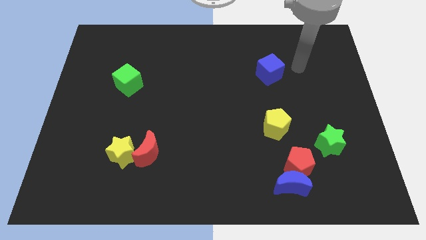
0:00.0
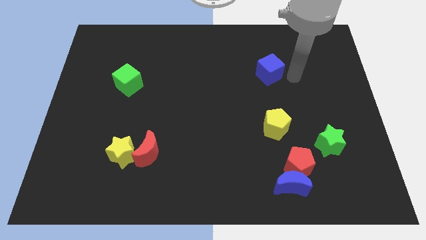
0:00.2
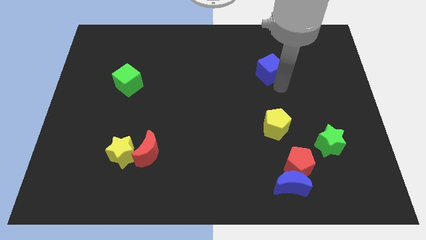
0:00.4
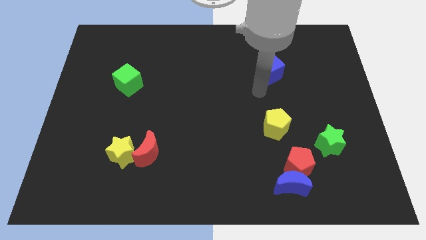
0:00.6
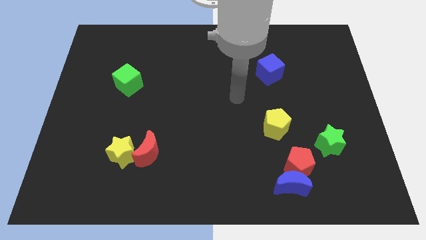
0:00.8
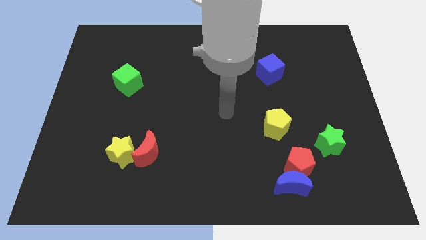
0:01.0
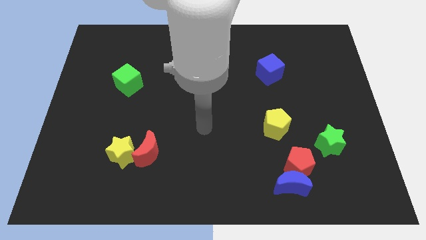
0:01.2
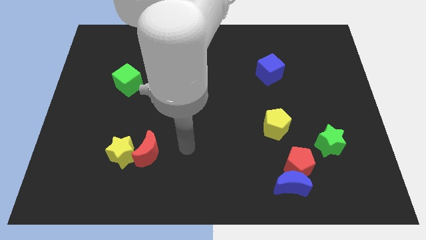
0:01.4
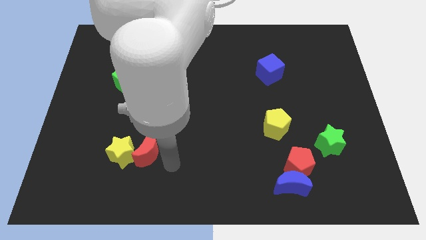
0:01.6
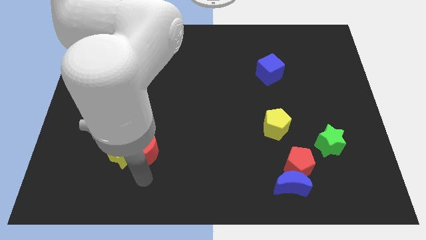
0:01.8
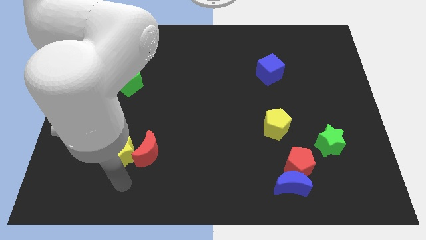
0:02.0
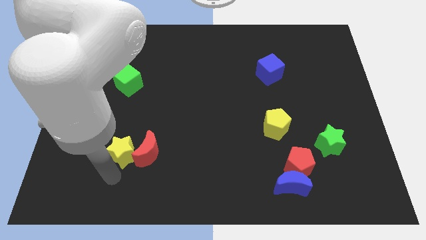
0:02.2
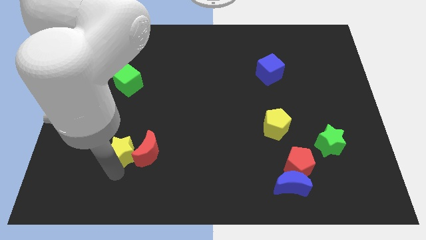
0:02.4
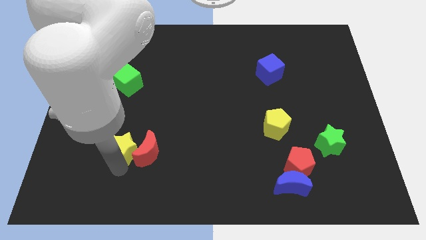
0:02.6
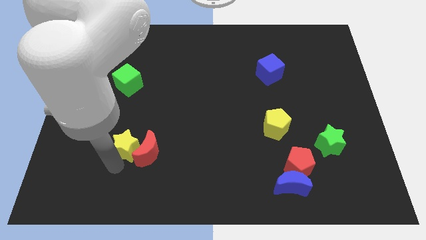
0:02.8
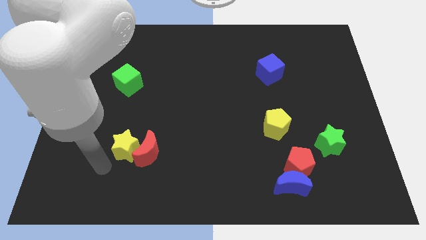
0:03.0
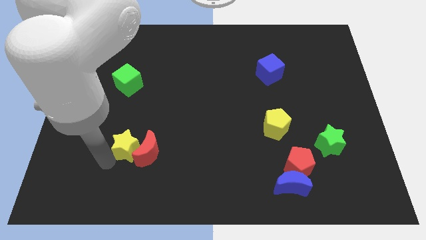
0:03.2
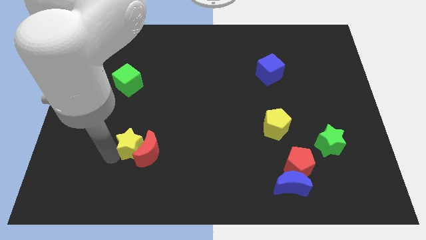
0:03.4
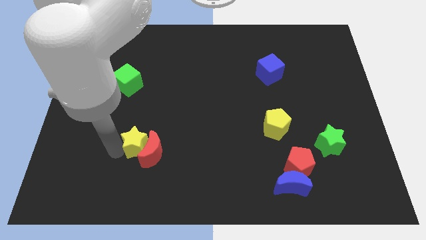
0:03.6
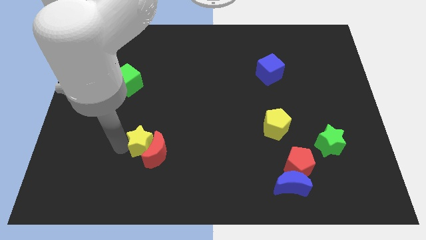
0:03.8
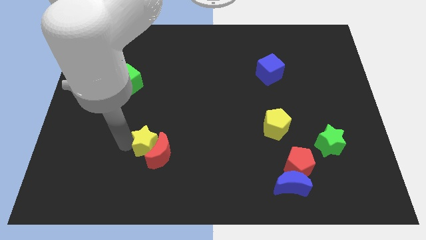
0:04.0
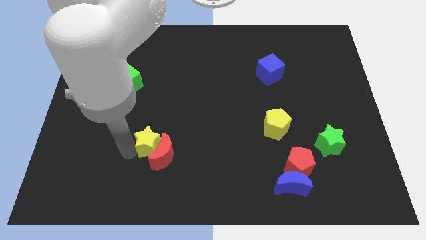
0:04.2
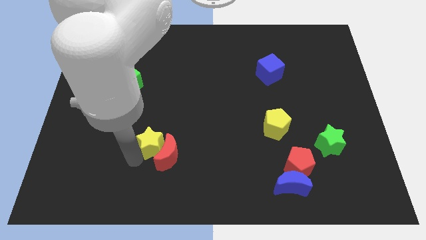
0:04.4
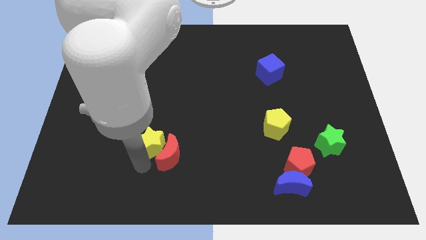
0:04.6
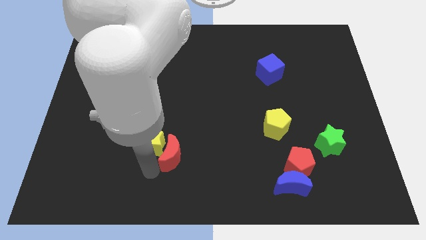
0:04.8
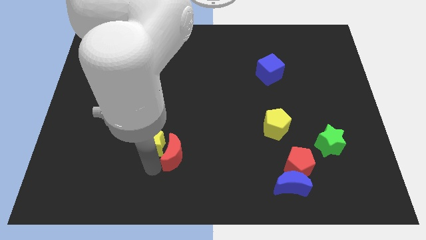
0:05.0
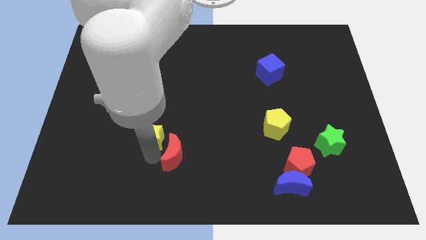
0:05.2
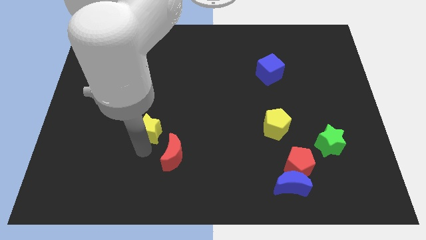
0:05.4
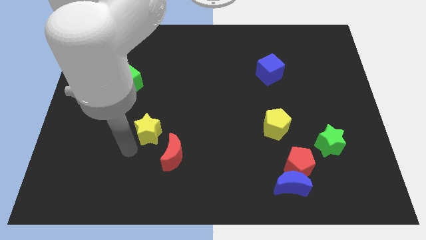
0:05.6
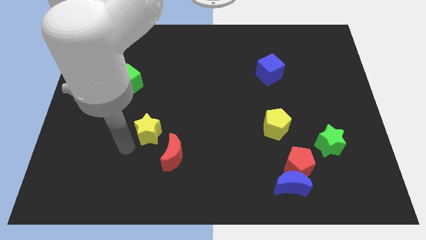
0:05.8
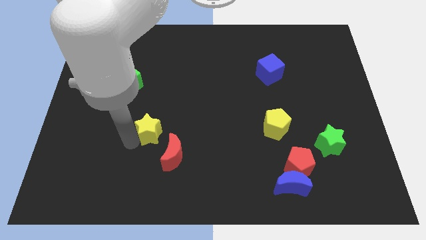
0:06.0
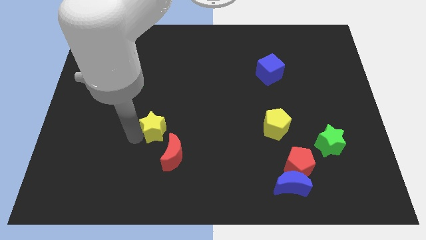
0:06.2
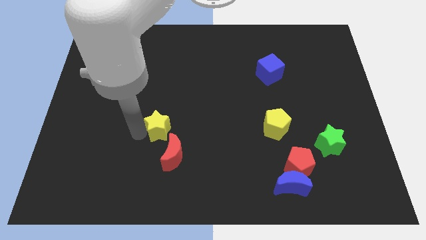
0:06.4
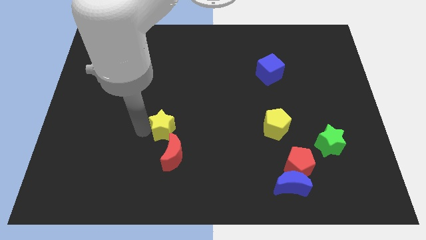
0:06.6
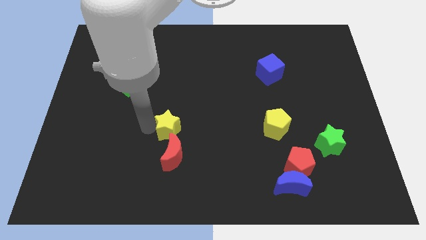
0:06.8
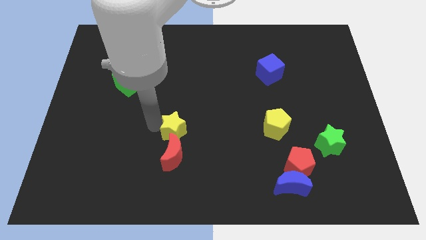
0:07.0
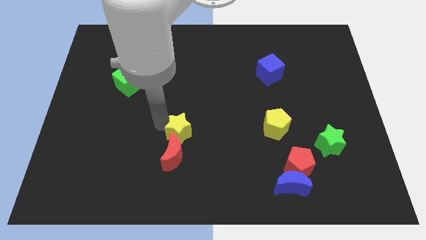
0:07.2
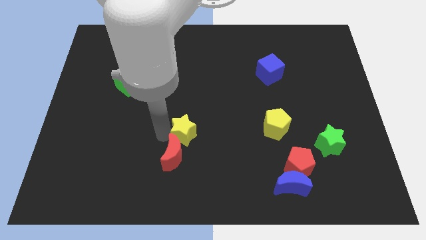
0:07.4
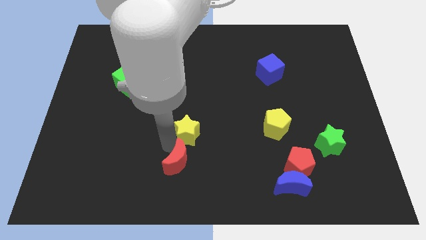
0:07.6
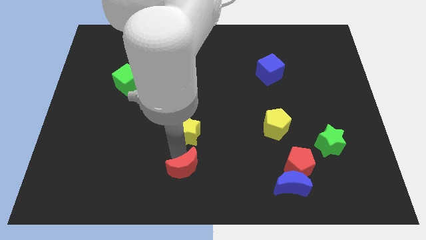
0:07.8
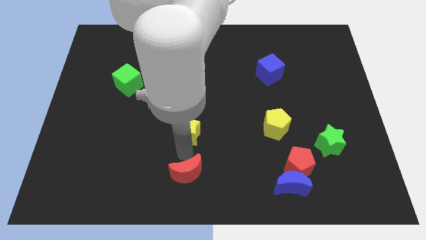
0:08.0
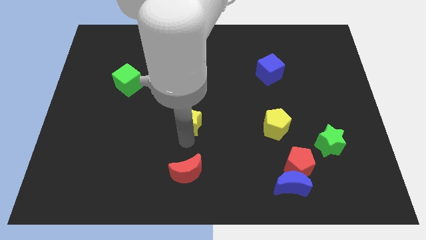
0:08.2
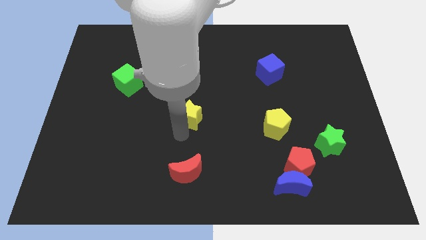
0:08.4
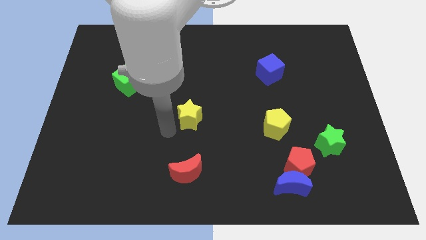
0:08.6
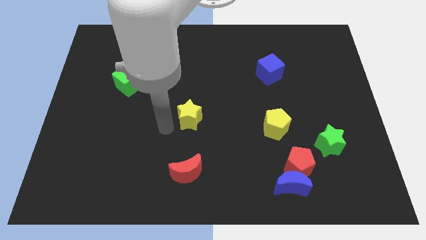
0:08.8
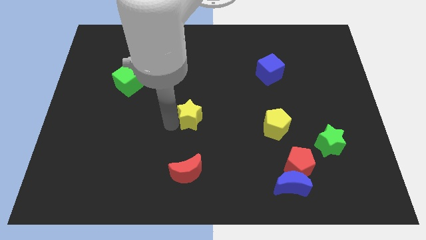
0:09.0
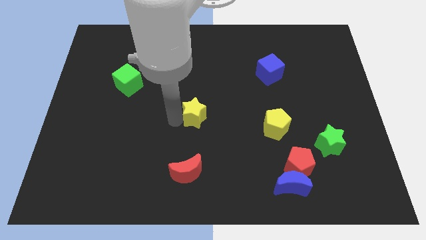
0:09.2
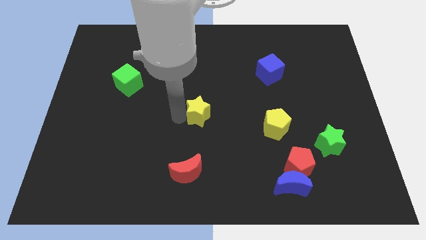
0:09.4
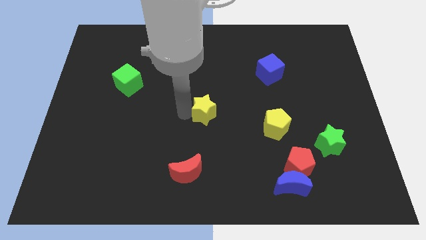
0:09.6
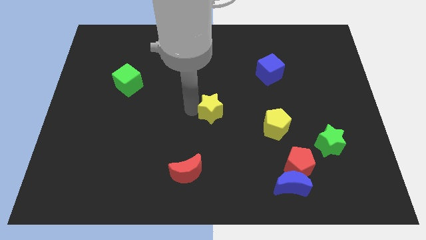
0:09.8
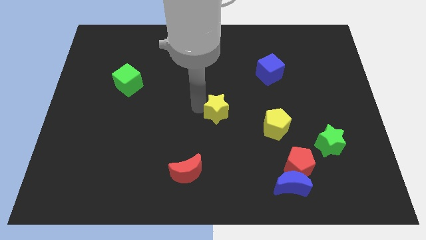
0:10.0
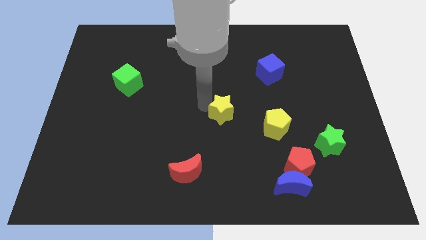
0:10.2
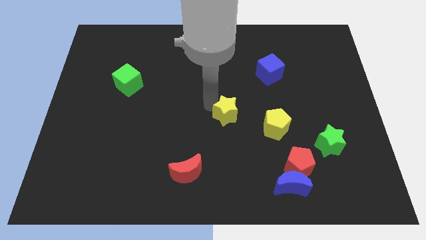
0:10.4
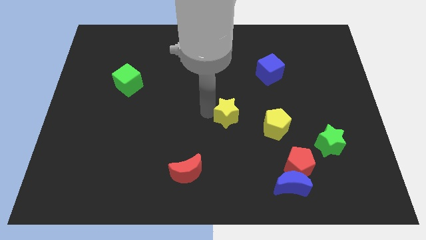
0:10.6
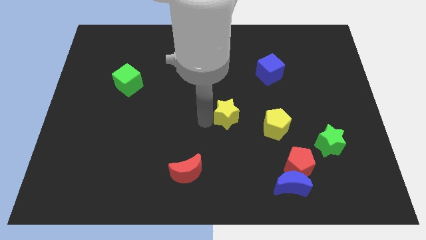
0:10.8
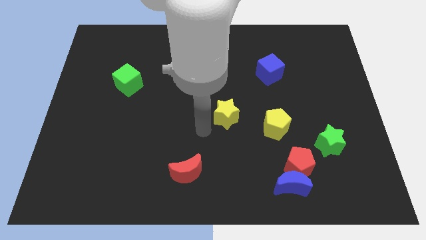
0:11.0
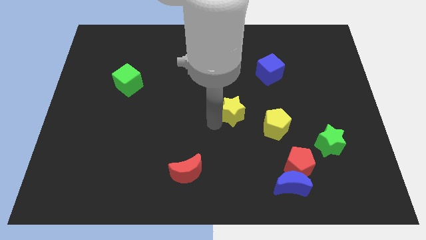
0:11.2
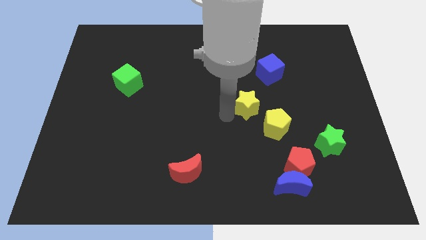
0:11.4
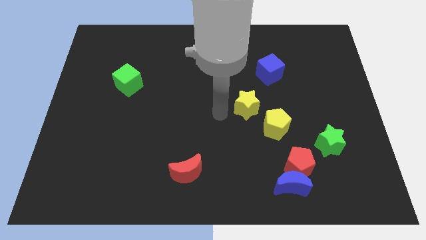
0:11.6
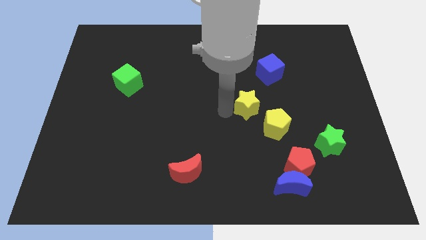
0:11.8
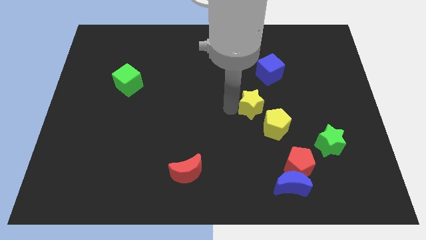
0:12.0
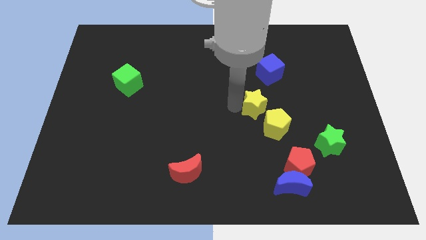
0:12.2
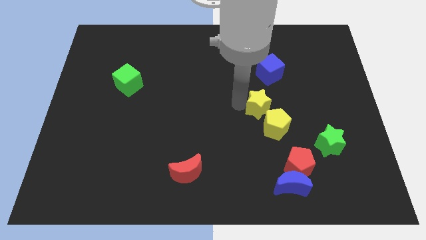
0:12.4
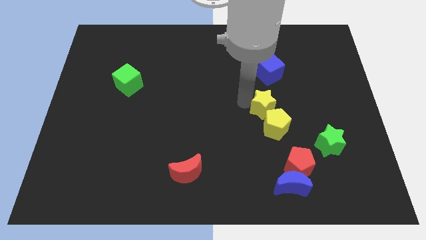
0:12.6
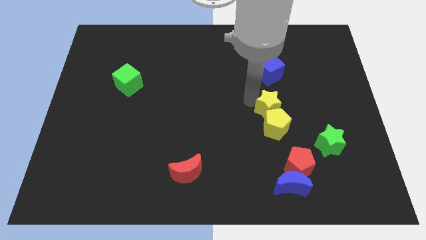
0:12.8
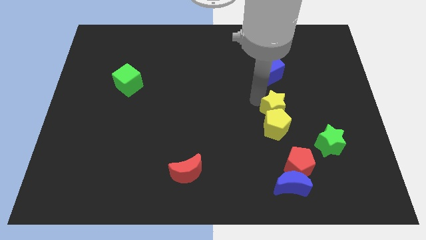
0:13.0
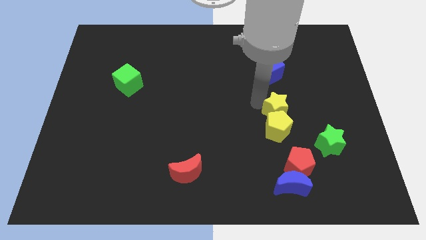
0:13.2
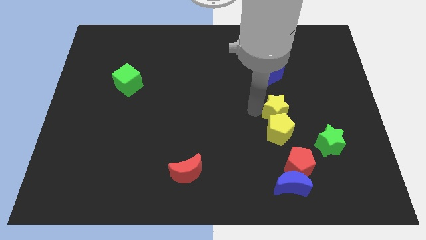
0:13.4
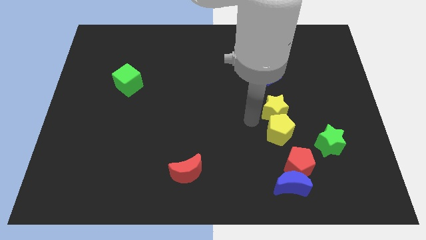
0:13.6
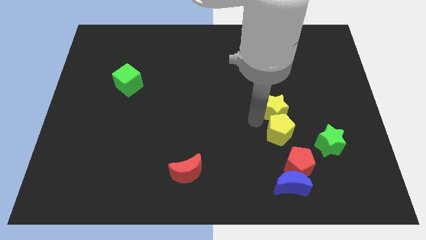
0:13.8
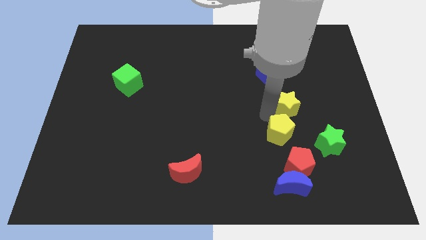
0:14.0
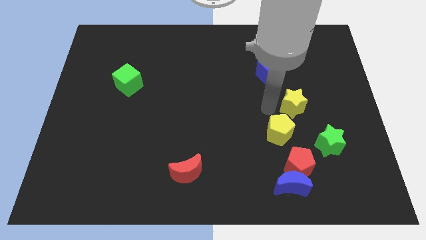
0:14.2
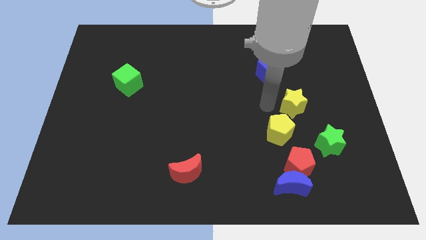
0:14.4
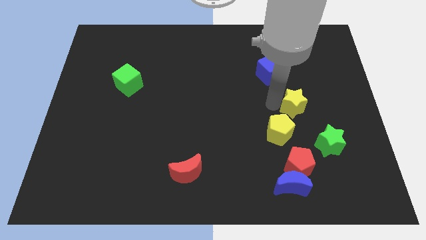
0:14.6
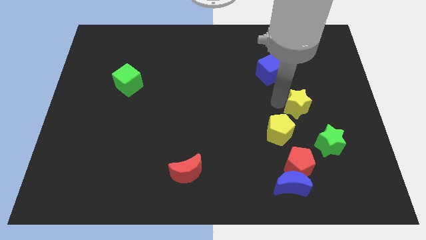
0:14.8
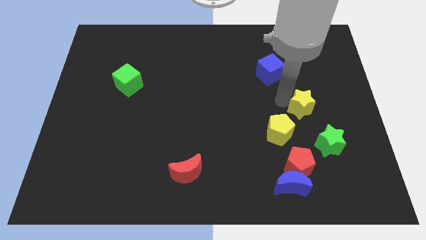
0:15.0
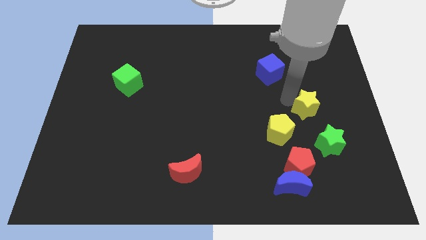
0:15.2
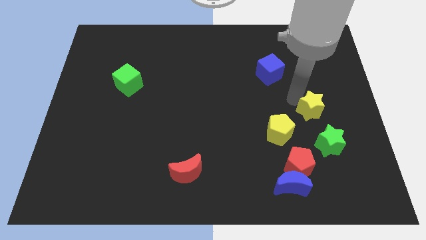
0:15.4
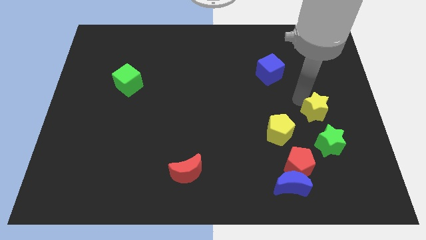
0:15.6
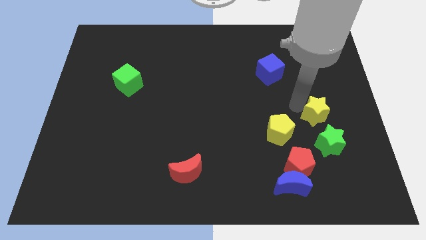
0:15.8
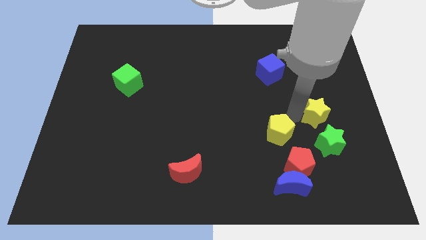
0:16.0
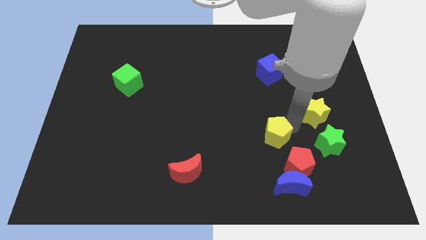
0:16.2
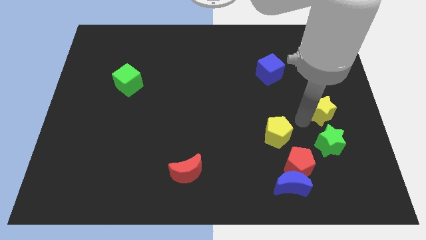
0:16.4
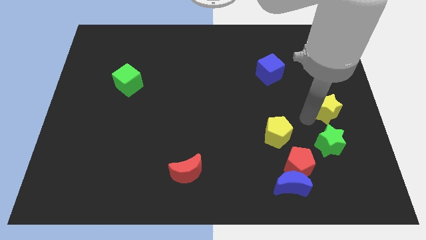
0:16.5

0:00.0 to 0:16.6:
put the yellow star to the right side
